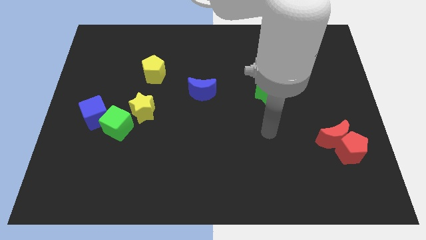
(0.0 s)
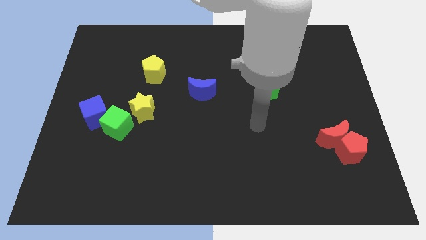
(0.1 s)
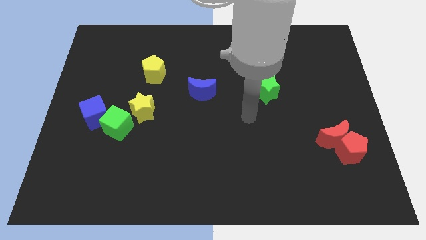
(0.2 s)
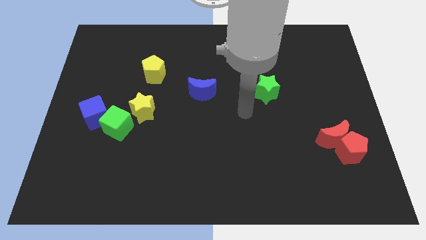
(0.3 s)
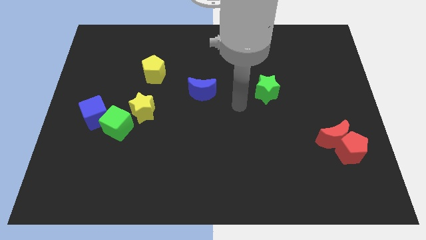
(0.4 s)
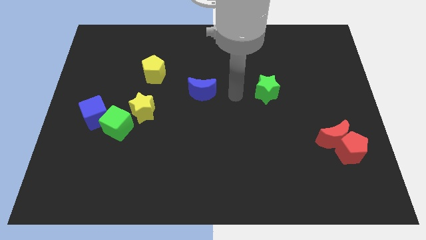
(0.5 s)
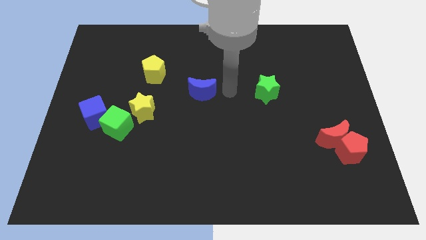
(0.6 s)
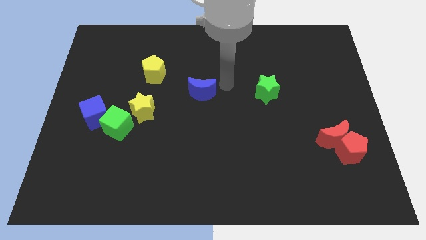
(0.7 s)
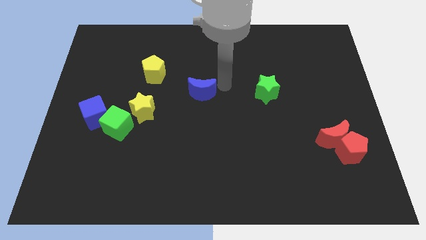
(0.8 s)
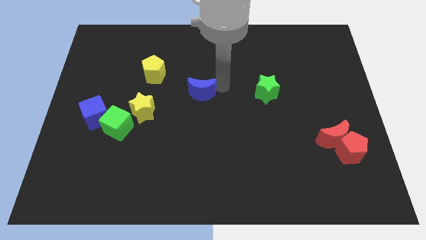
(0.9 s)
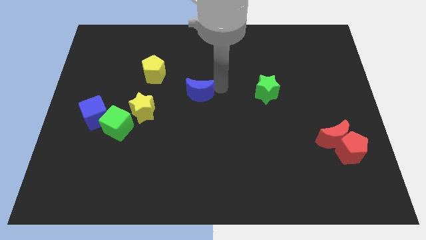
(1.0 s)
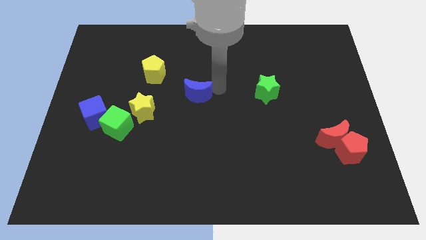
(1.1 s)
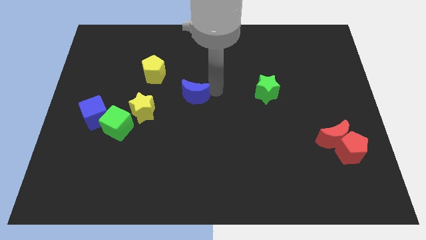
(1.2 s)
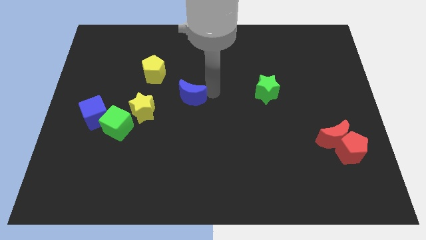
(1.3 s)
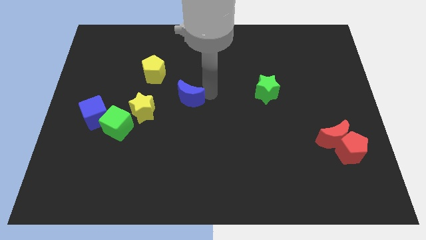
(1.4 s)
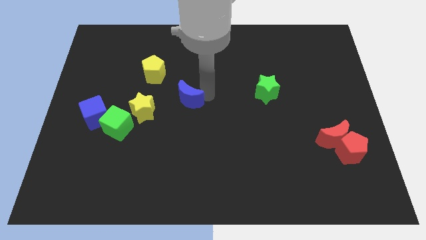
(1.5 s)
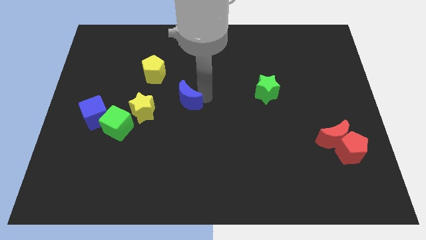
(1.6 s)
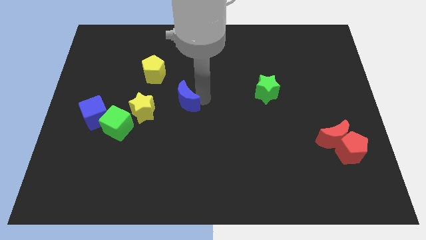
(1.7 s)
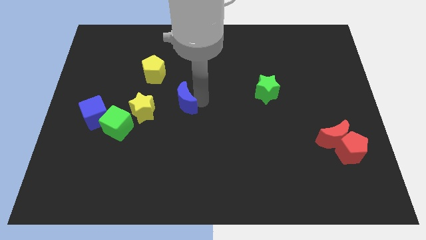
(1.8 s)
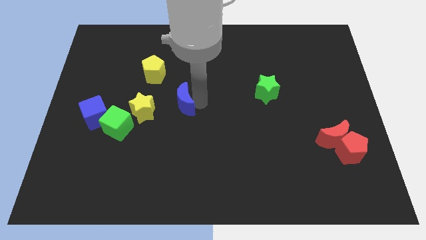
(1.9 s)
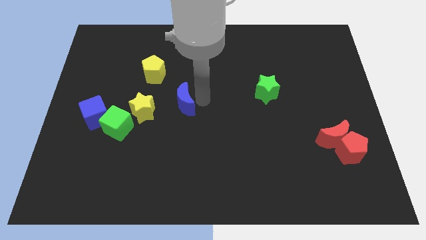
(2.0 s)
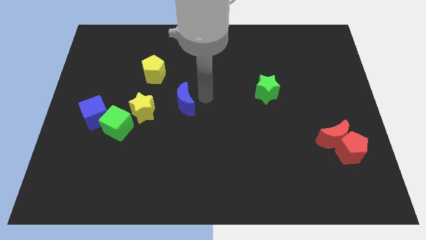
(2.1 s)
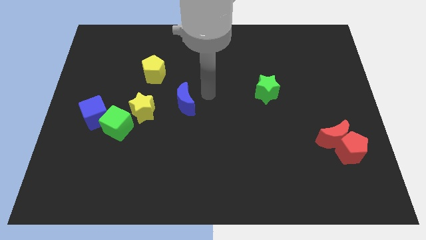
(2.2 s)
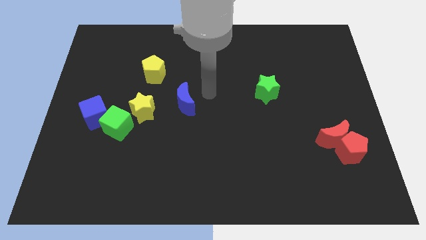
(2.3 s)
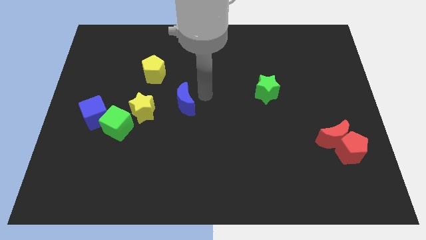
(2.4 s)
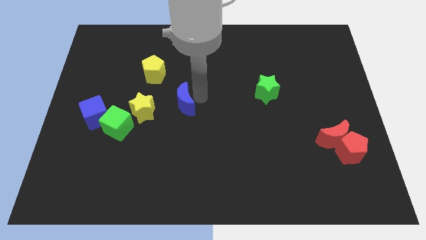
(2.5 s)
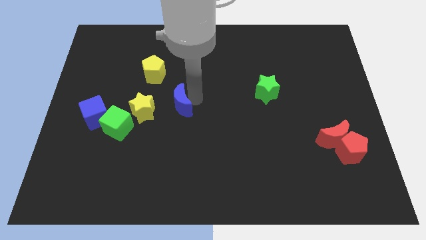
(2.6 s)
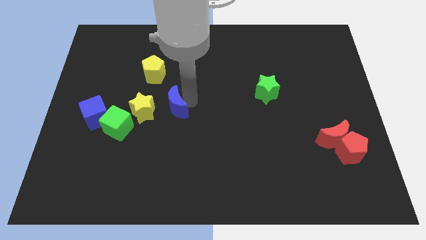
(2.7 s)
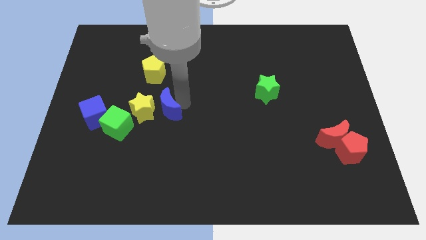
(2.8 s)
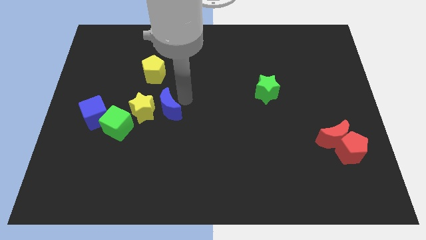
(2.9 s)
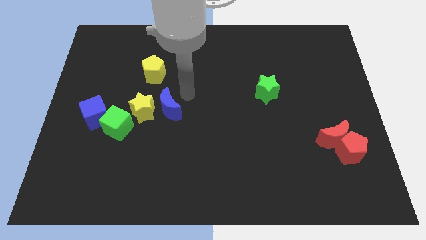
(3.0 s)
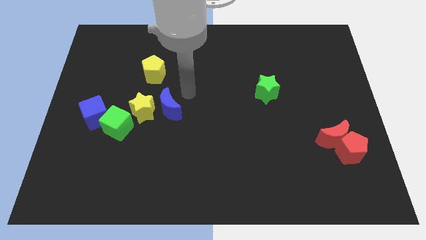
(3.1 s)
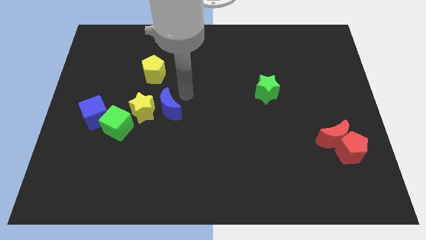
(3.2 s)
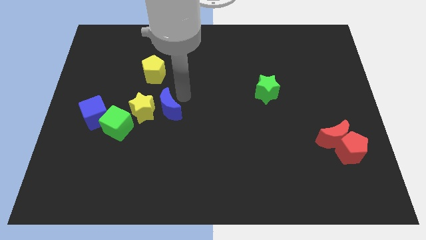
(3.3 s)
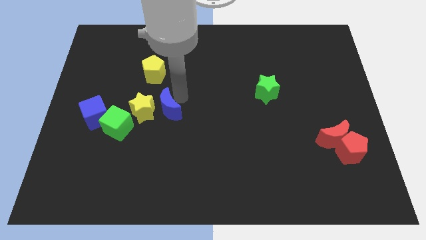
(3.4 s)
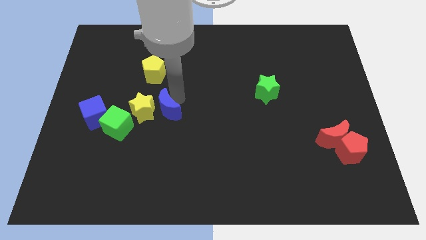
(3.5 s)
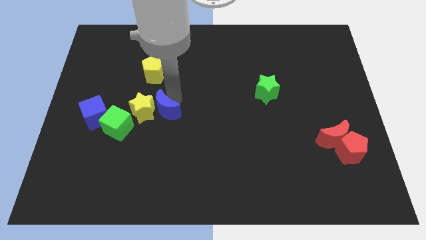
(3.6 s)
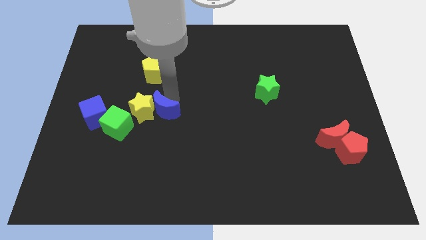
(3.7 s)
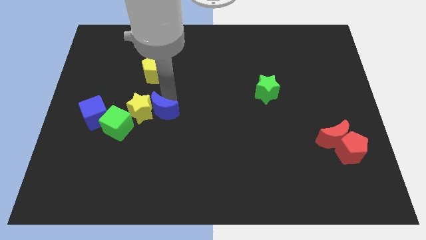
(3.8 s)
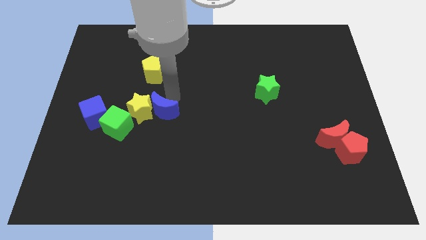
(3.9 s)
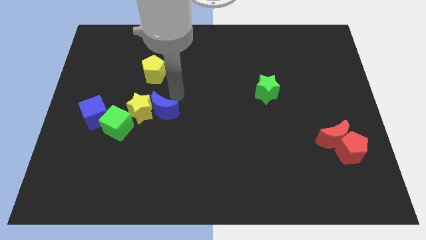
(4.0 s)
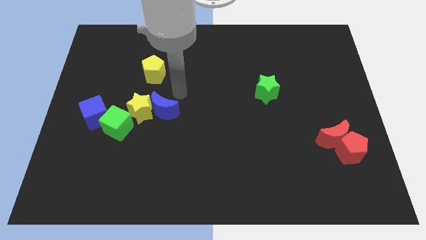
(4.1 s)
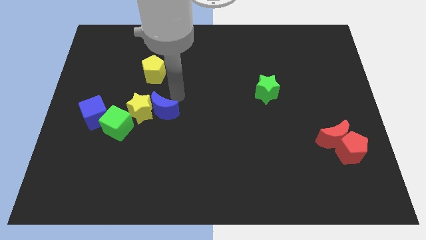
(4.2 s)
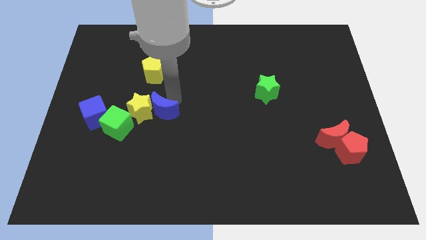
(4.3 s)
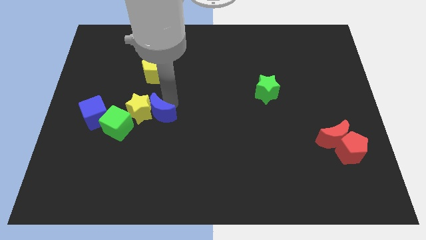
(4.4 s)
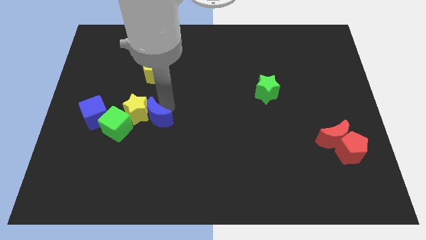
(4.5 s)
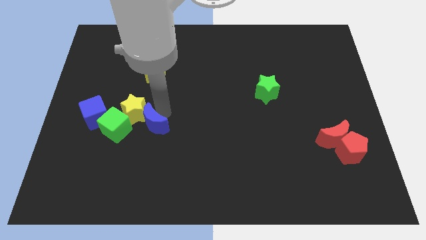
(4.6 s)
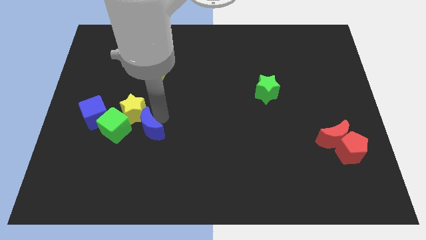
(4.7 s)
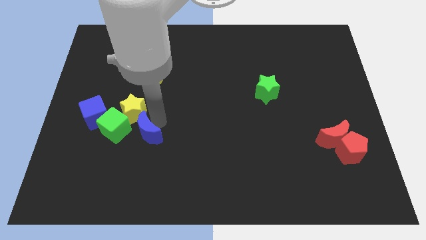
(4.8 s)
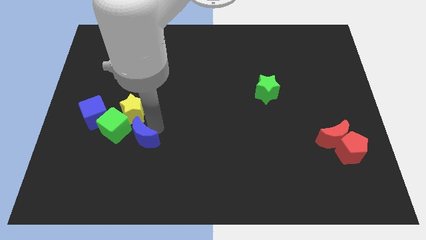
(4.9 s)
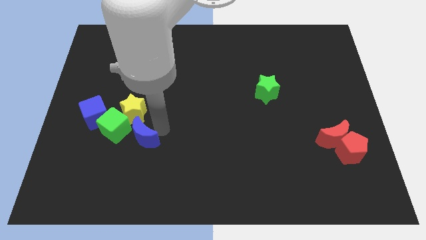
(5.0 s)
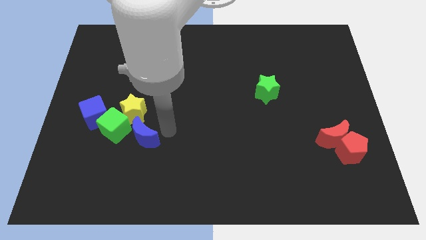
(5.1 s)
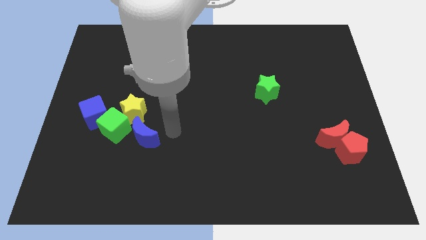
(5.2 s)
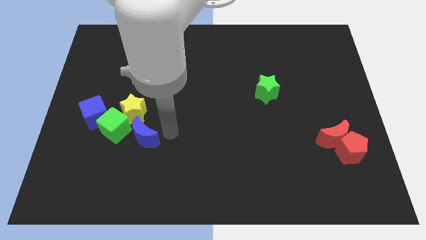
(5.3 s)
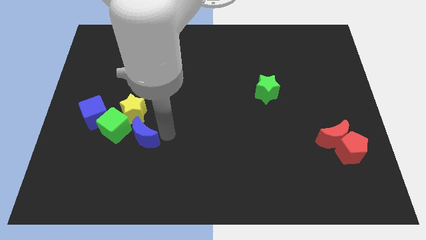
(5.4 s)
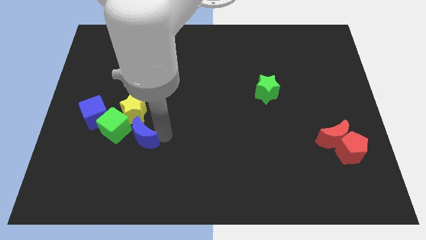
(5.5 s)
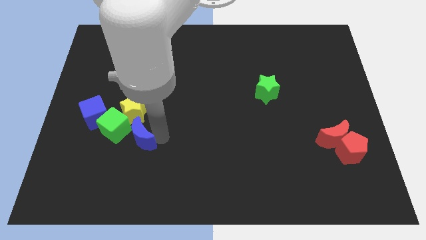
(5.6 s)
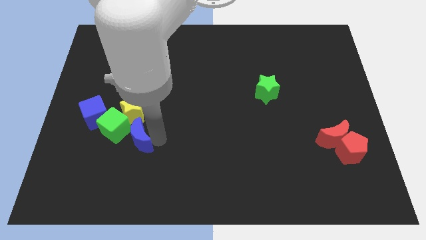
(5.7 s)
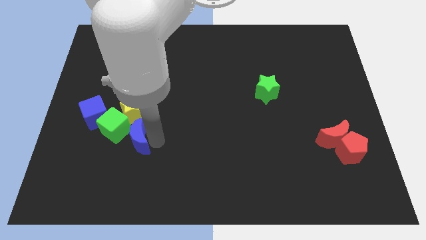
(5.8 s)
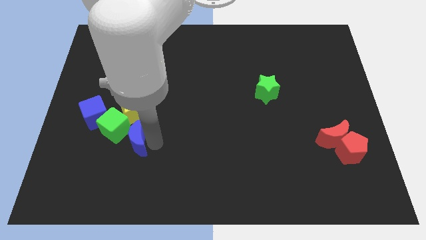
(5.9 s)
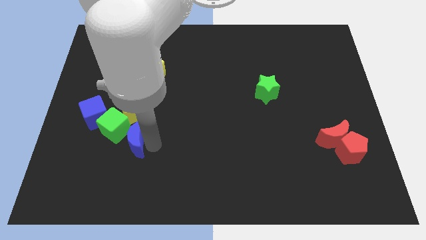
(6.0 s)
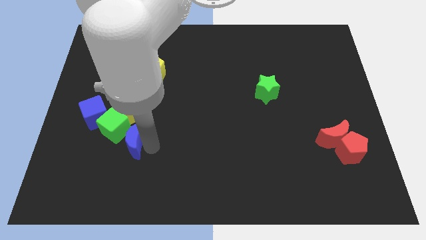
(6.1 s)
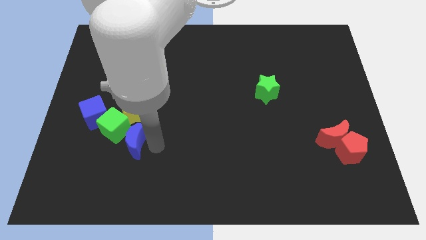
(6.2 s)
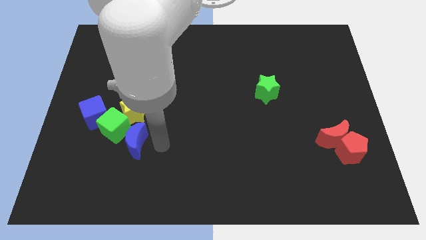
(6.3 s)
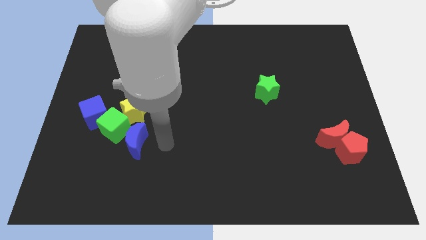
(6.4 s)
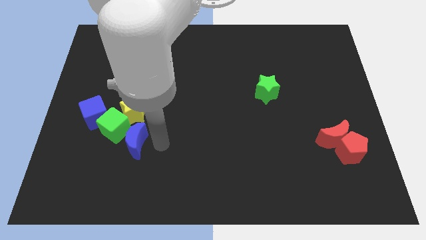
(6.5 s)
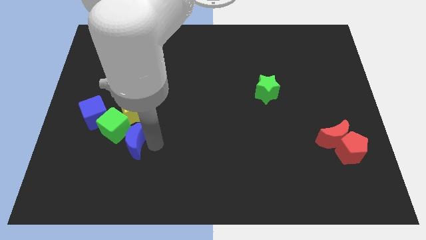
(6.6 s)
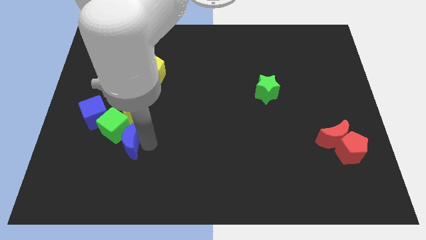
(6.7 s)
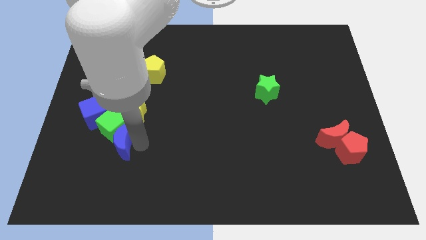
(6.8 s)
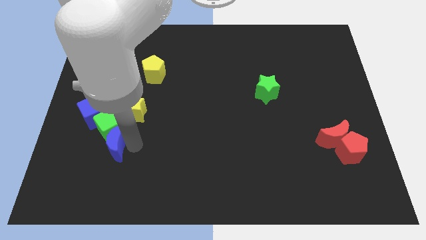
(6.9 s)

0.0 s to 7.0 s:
put the blue moon to the bottom left side of the yellow star

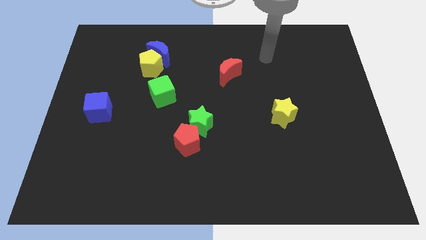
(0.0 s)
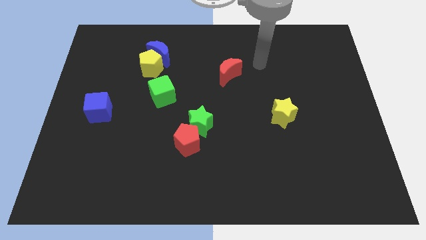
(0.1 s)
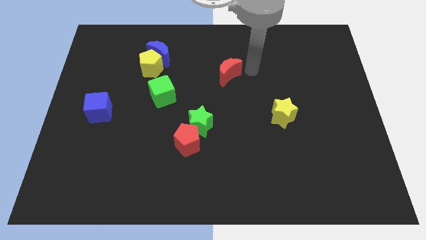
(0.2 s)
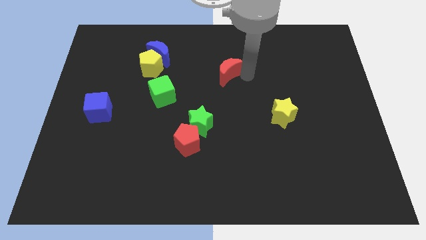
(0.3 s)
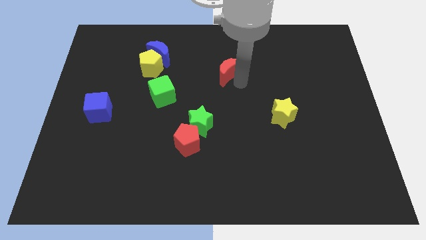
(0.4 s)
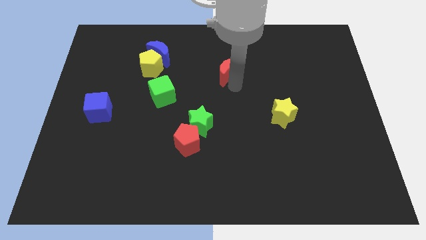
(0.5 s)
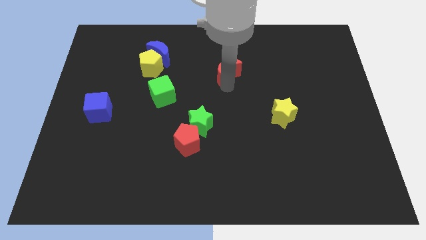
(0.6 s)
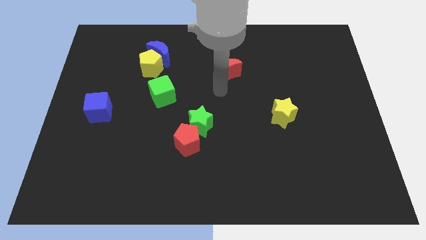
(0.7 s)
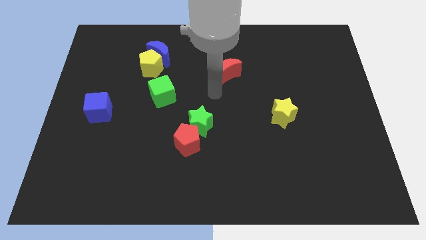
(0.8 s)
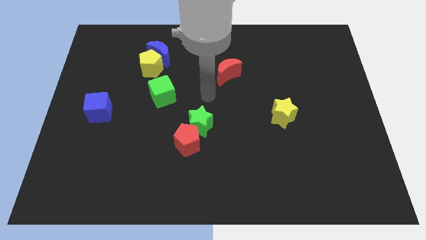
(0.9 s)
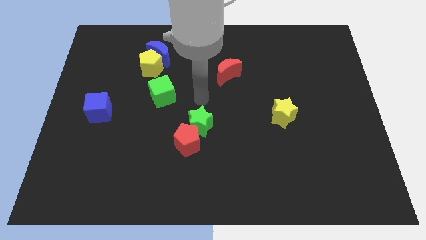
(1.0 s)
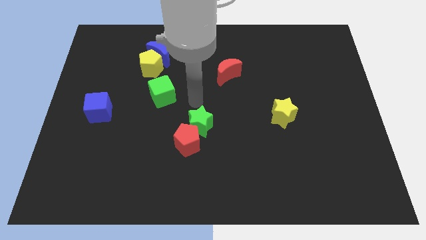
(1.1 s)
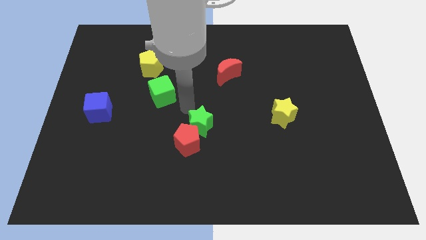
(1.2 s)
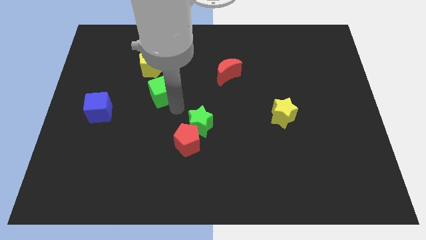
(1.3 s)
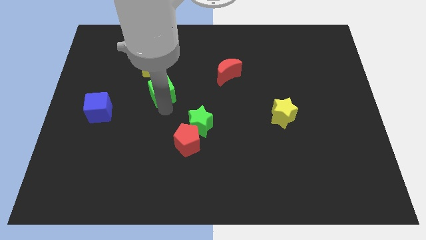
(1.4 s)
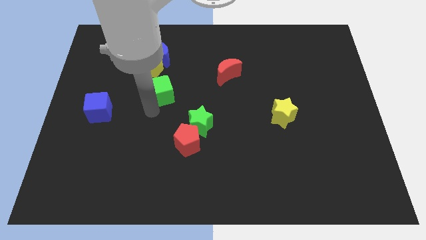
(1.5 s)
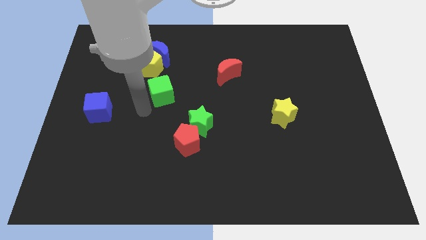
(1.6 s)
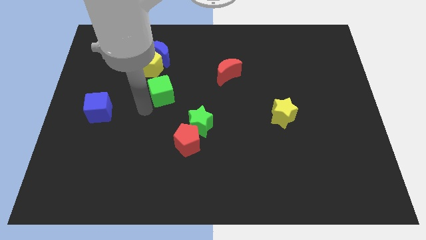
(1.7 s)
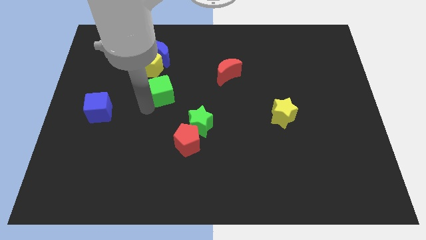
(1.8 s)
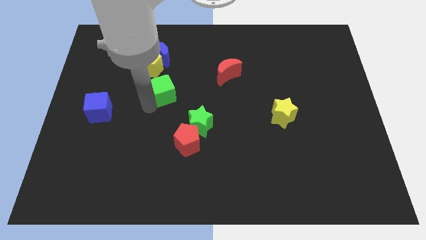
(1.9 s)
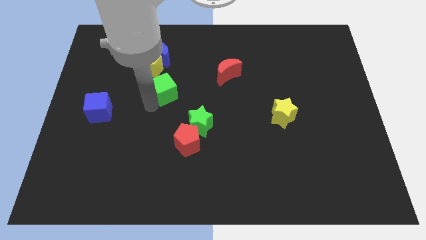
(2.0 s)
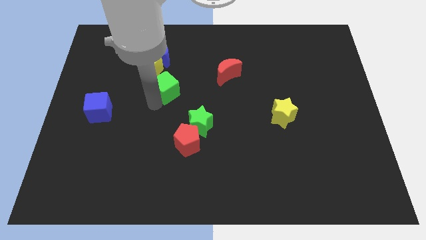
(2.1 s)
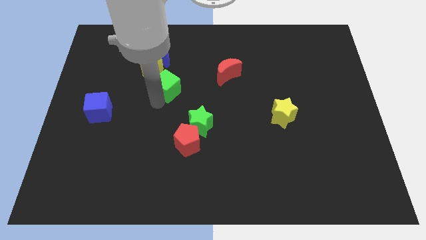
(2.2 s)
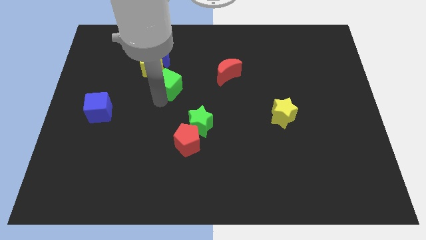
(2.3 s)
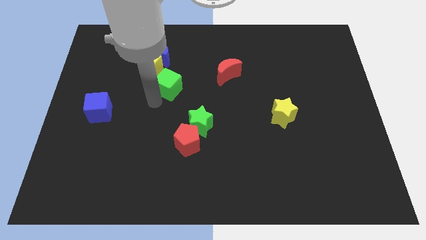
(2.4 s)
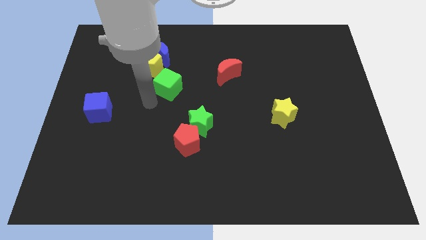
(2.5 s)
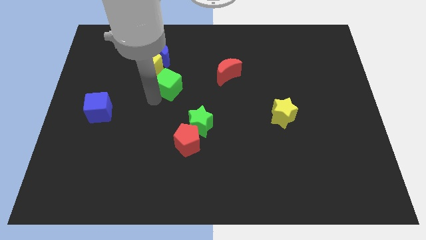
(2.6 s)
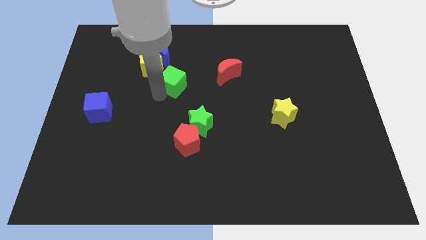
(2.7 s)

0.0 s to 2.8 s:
push the green cube left of the red moon
